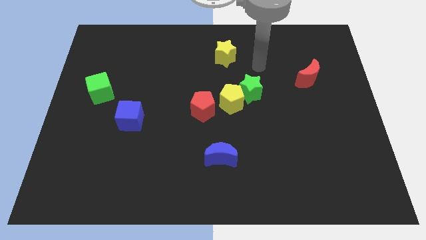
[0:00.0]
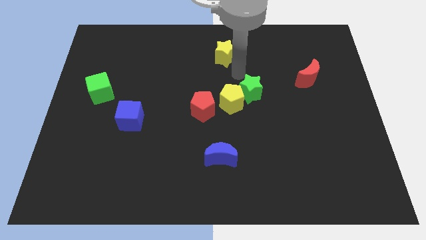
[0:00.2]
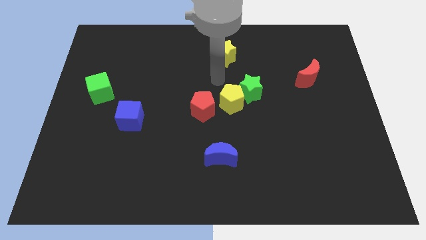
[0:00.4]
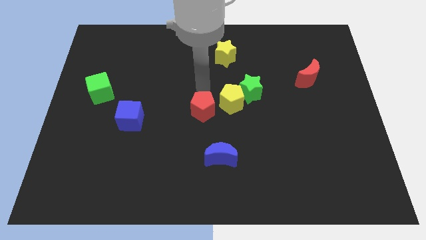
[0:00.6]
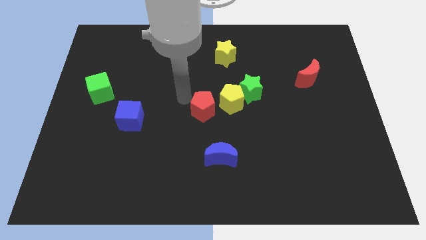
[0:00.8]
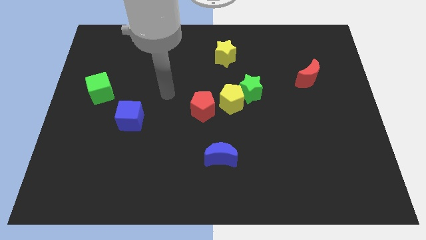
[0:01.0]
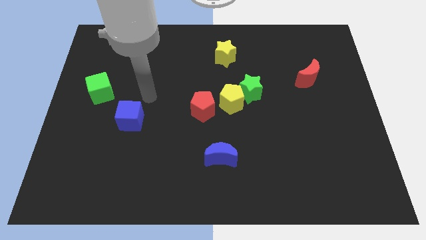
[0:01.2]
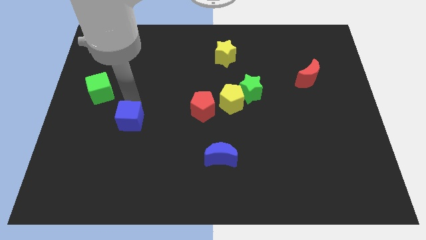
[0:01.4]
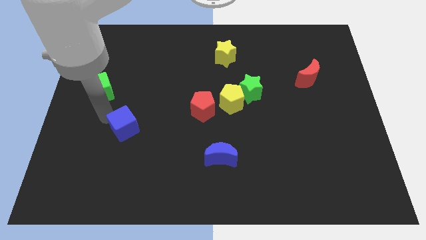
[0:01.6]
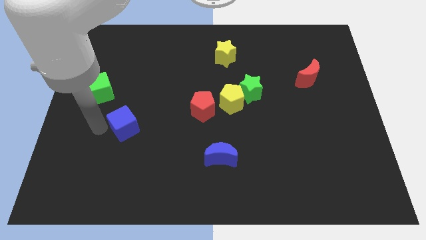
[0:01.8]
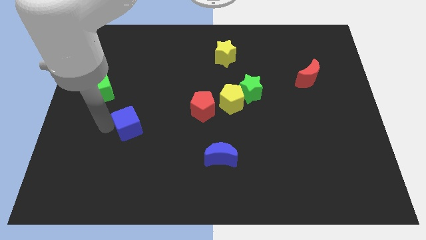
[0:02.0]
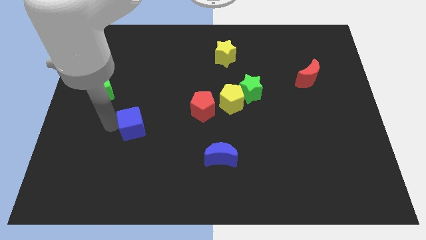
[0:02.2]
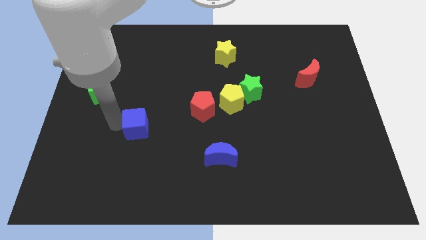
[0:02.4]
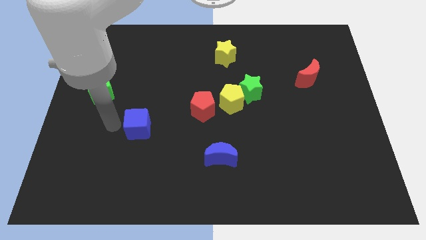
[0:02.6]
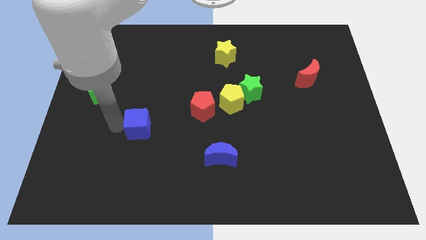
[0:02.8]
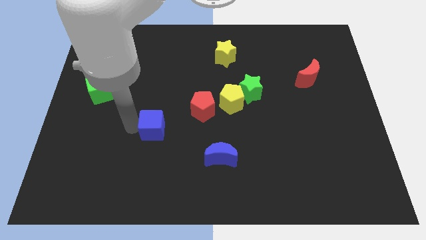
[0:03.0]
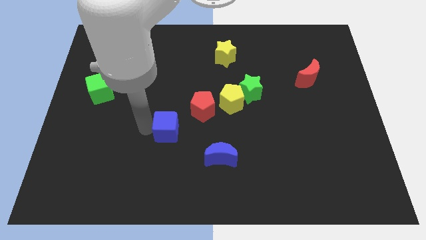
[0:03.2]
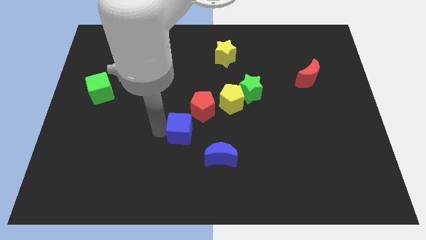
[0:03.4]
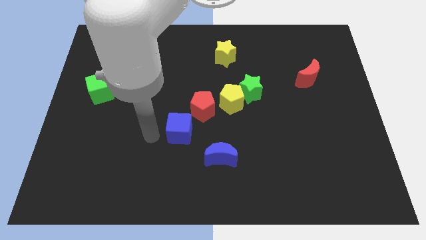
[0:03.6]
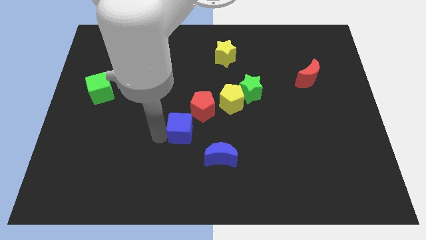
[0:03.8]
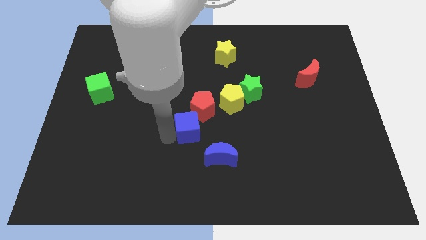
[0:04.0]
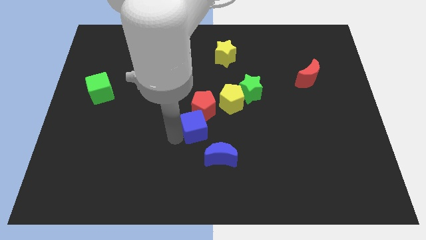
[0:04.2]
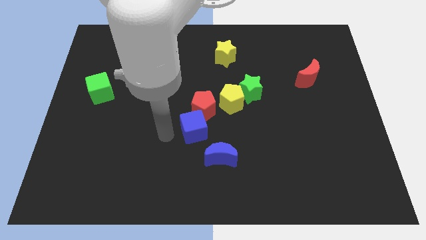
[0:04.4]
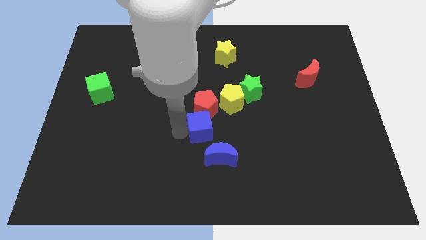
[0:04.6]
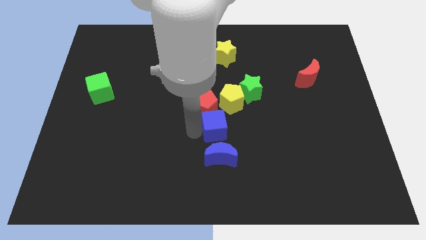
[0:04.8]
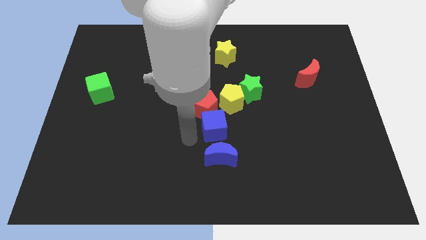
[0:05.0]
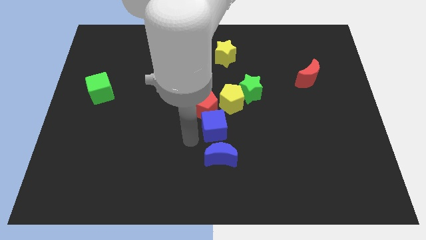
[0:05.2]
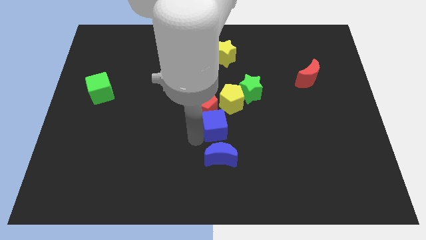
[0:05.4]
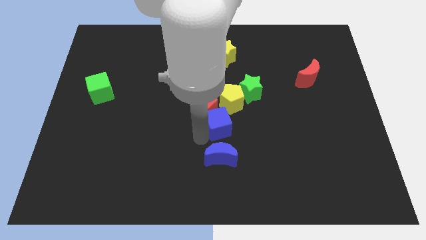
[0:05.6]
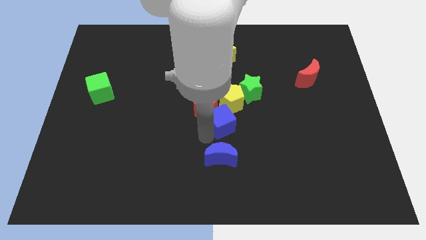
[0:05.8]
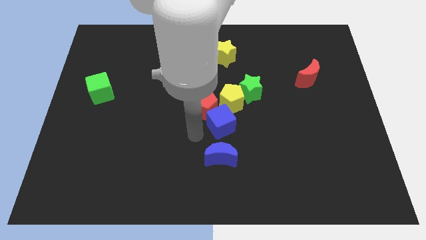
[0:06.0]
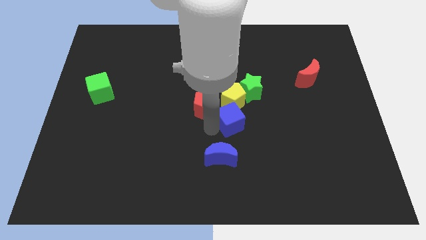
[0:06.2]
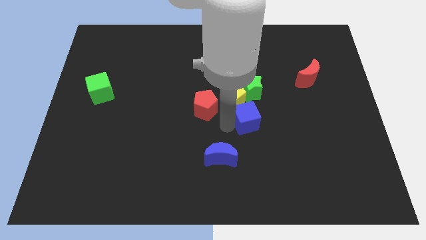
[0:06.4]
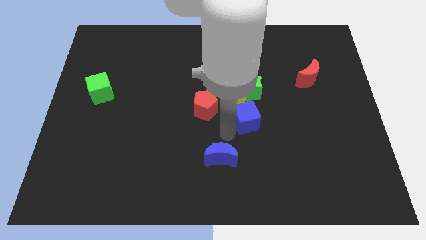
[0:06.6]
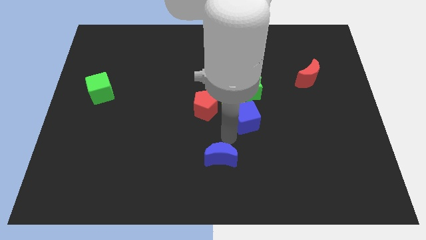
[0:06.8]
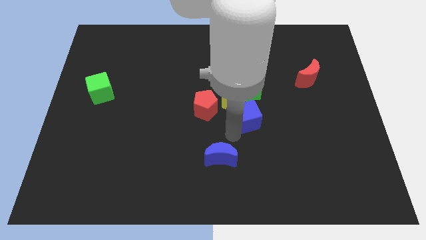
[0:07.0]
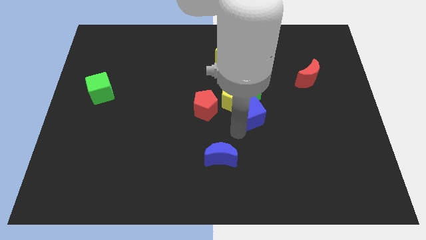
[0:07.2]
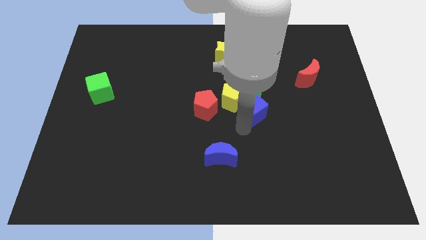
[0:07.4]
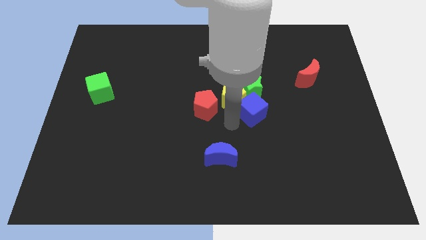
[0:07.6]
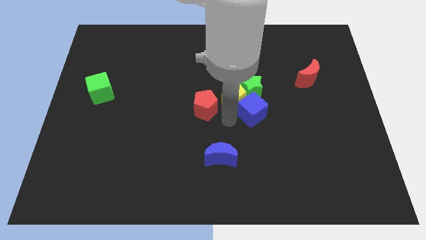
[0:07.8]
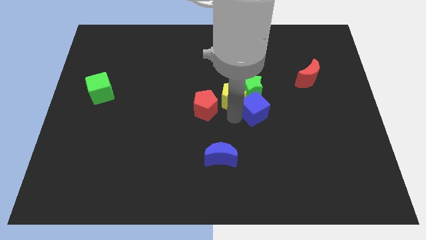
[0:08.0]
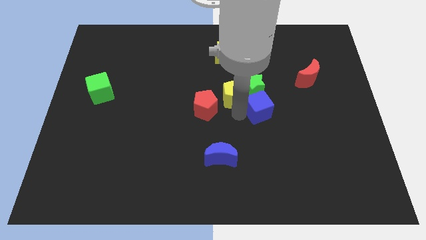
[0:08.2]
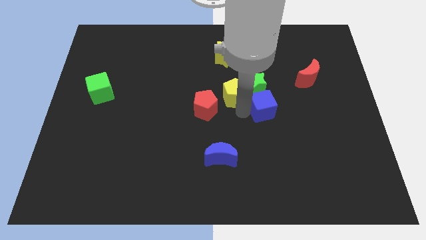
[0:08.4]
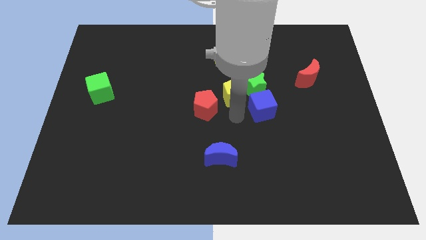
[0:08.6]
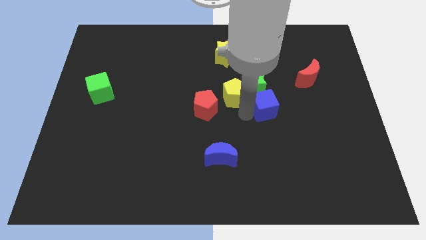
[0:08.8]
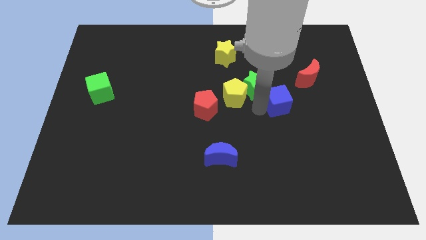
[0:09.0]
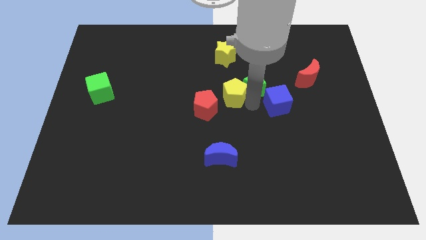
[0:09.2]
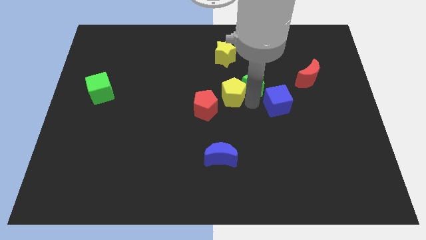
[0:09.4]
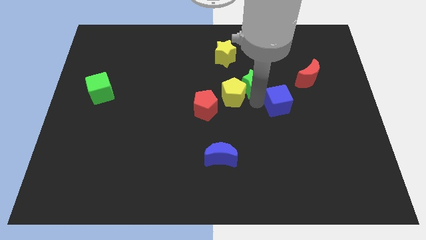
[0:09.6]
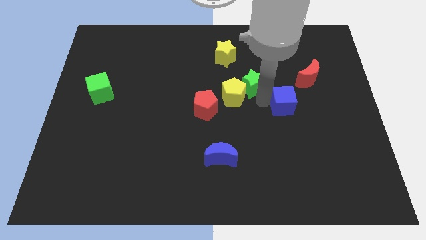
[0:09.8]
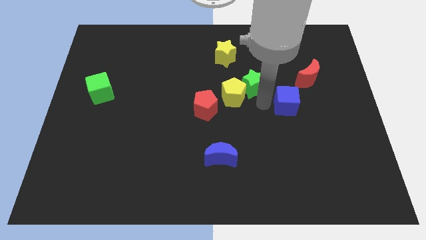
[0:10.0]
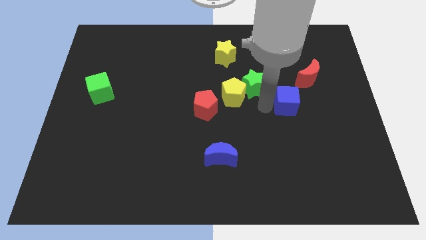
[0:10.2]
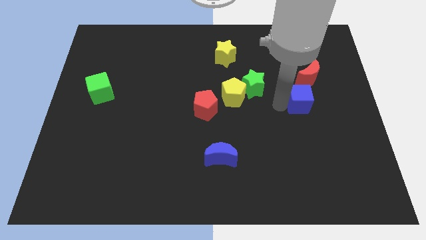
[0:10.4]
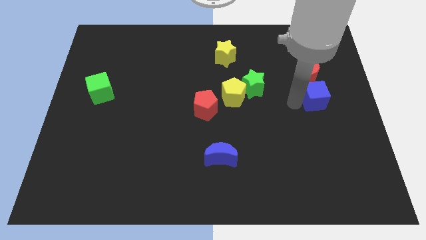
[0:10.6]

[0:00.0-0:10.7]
slide the blue cube diagonally down and to the right of the red moon

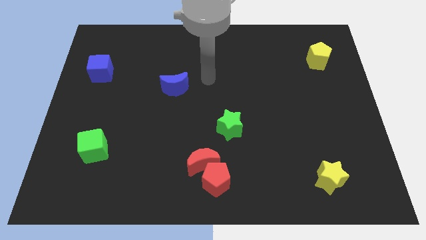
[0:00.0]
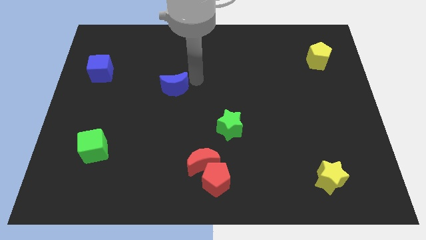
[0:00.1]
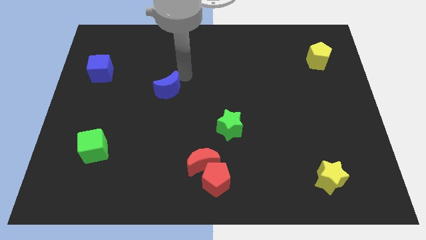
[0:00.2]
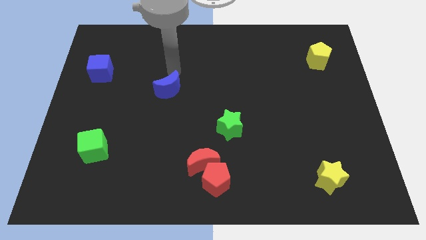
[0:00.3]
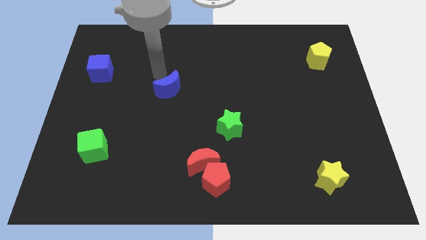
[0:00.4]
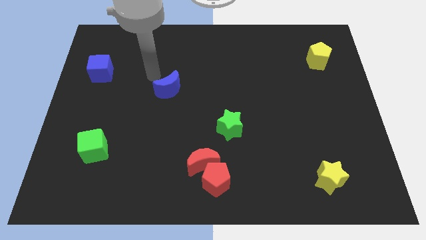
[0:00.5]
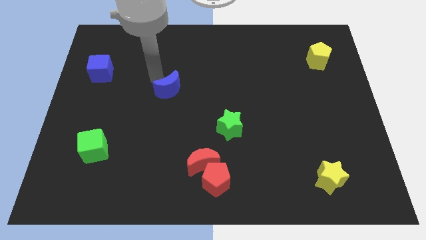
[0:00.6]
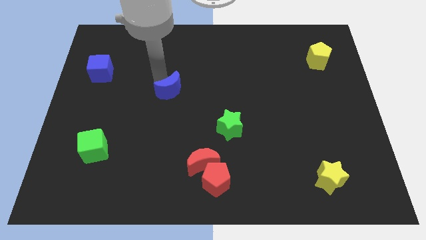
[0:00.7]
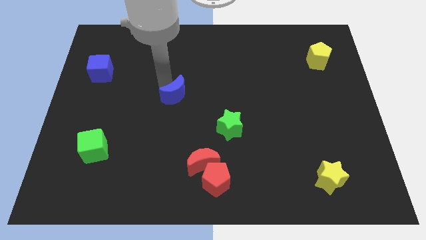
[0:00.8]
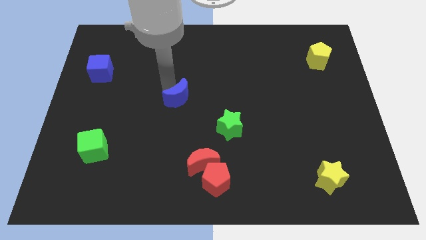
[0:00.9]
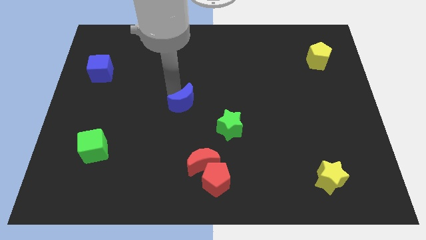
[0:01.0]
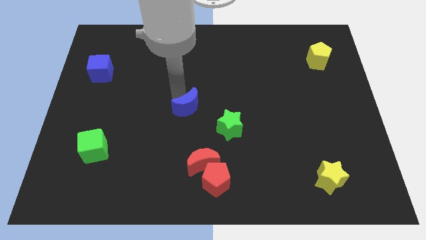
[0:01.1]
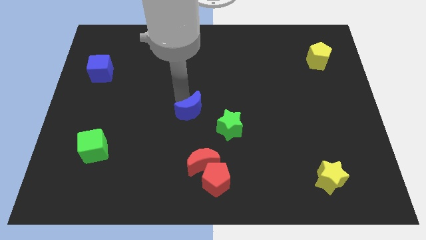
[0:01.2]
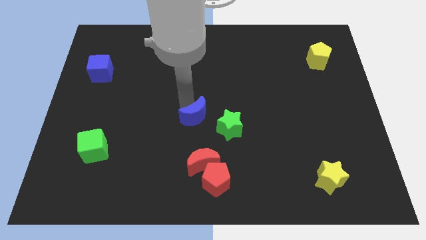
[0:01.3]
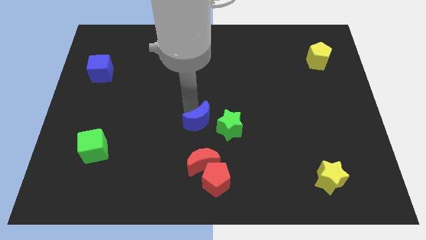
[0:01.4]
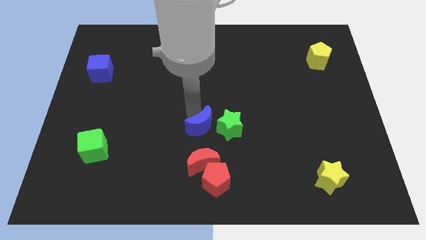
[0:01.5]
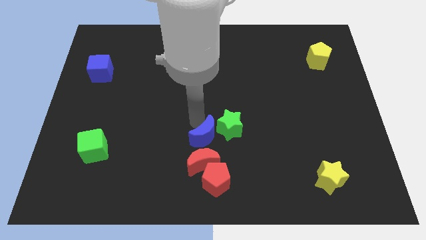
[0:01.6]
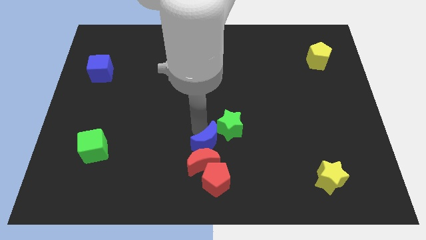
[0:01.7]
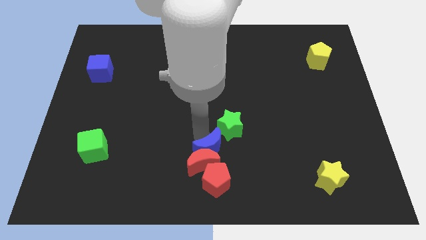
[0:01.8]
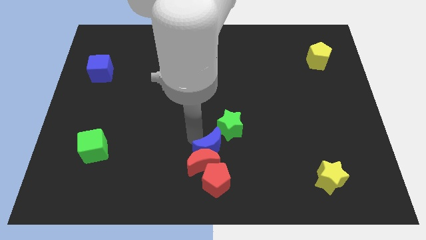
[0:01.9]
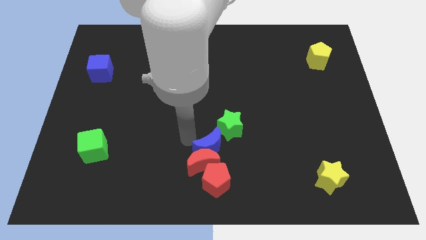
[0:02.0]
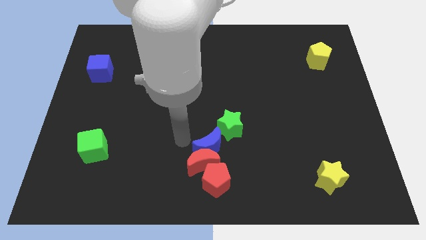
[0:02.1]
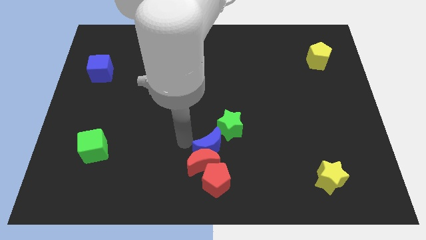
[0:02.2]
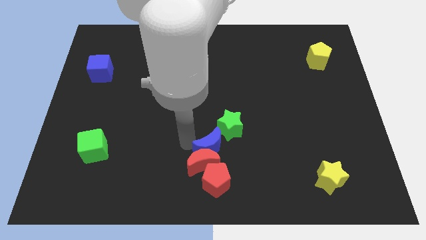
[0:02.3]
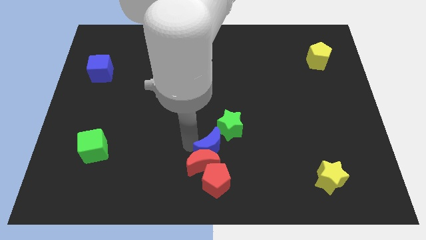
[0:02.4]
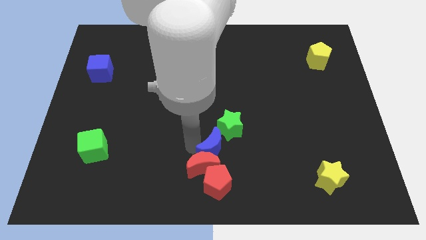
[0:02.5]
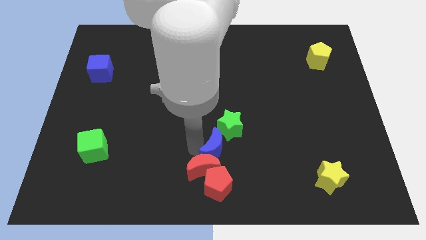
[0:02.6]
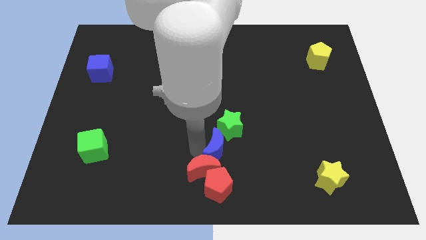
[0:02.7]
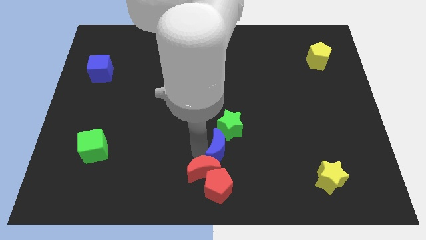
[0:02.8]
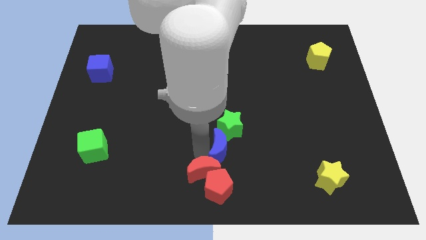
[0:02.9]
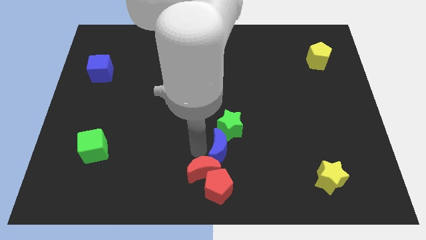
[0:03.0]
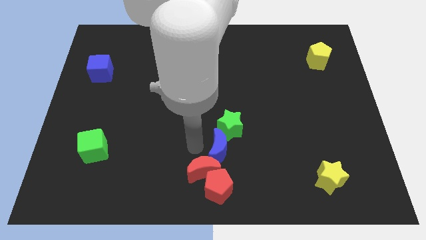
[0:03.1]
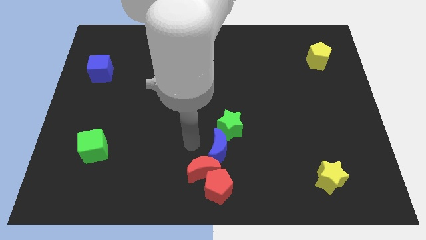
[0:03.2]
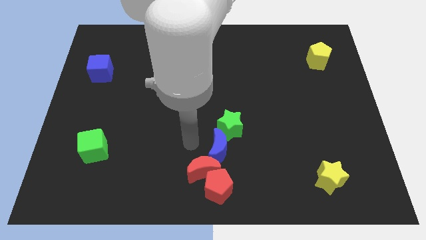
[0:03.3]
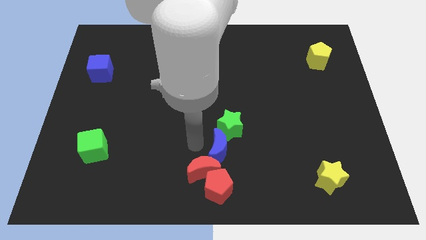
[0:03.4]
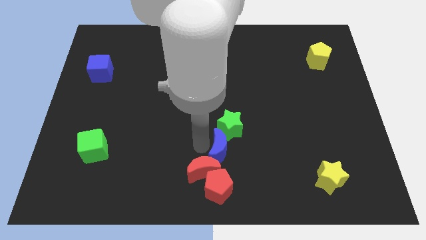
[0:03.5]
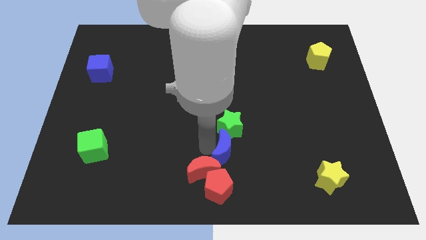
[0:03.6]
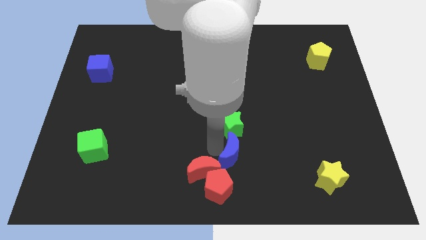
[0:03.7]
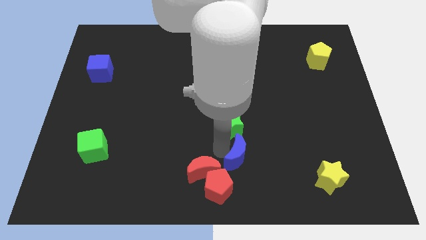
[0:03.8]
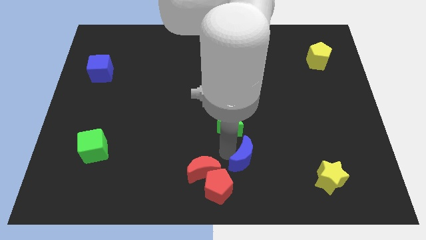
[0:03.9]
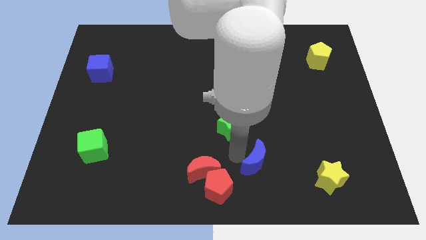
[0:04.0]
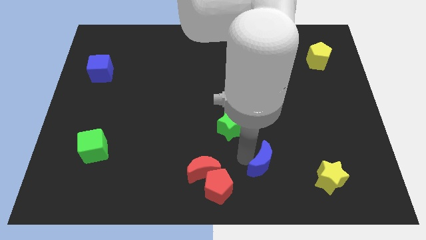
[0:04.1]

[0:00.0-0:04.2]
put the blue moon to the left of the yellow star
